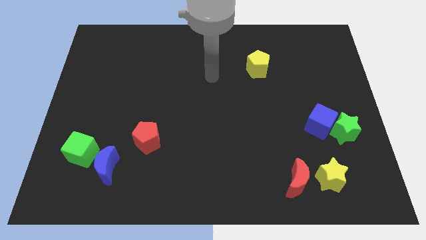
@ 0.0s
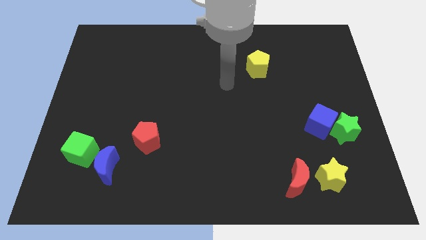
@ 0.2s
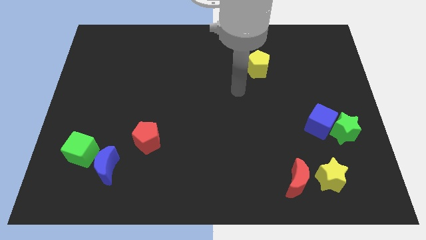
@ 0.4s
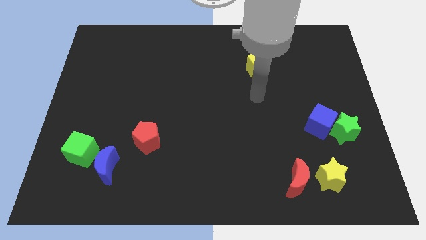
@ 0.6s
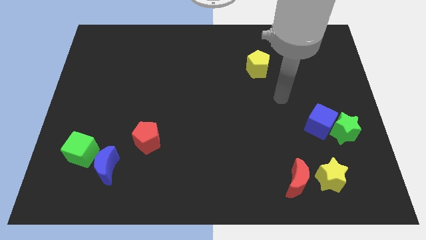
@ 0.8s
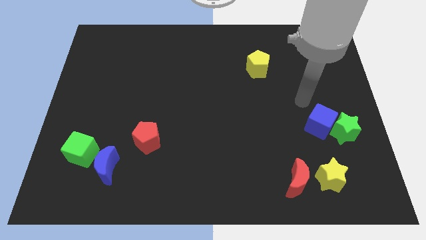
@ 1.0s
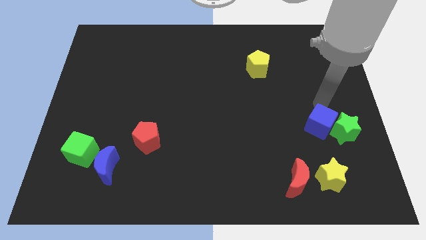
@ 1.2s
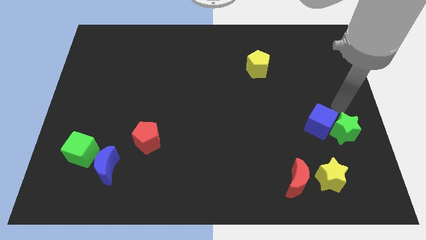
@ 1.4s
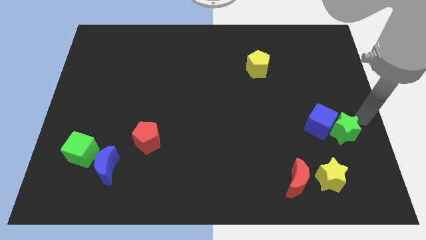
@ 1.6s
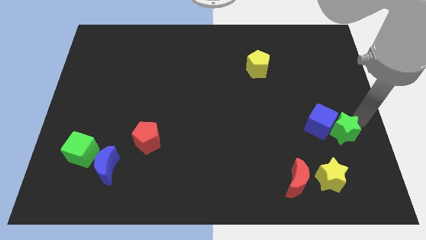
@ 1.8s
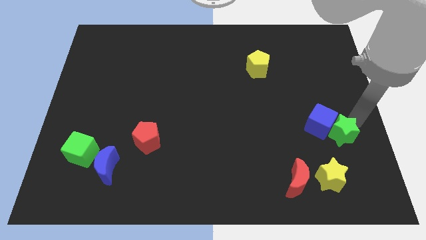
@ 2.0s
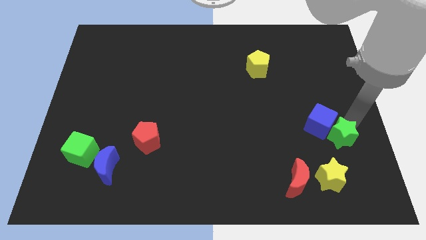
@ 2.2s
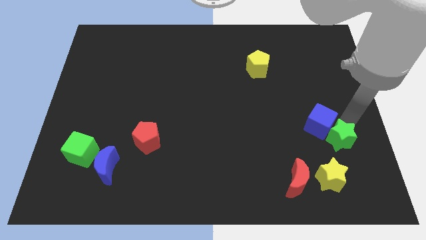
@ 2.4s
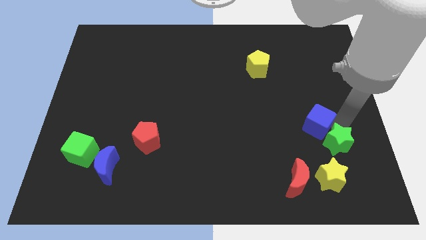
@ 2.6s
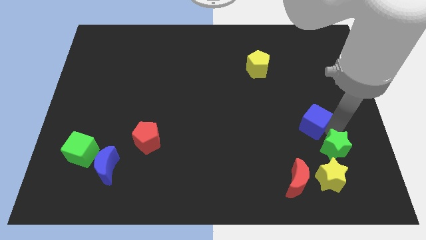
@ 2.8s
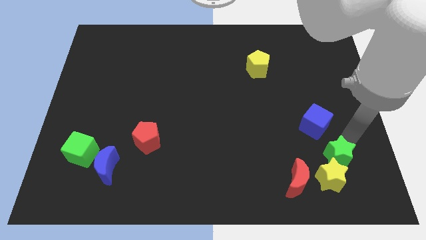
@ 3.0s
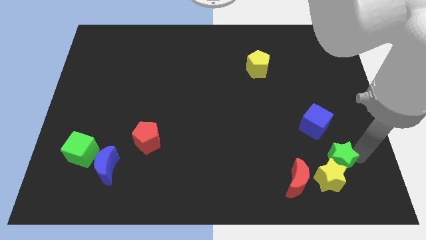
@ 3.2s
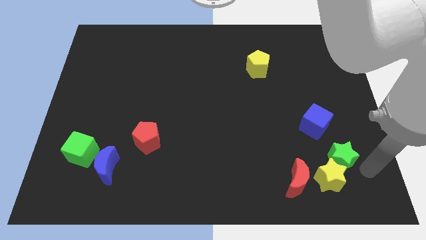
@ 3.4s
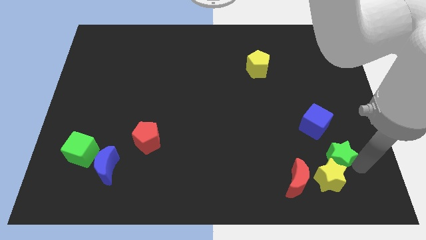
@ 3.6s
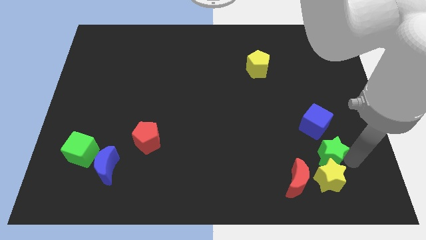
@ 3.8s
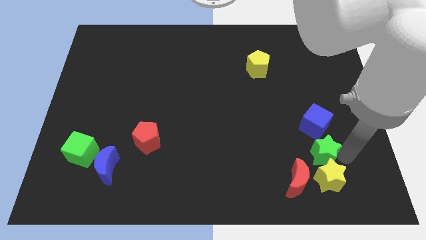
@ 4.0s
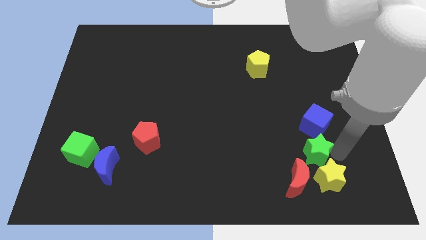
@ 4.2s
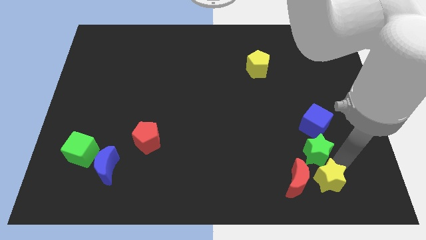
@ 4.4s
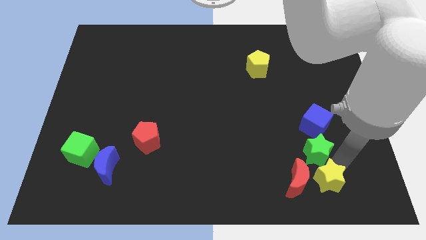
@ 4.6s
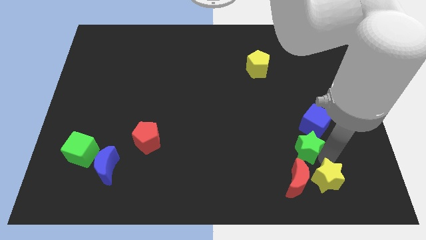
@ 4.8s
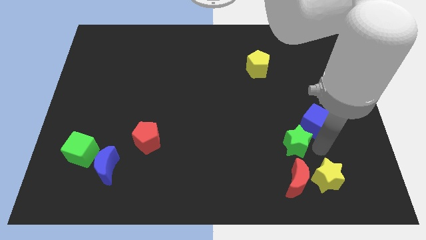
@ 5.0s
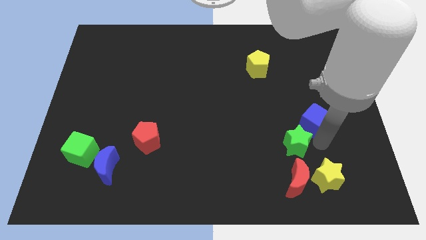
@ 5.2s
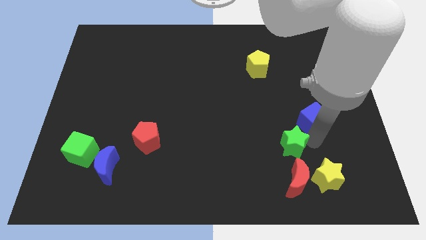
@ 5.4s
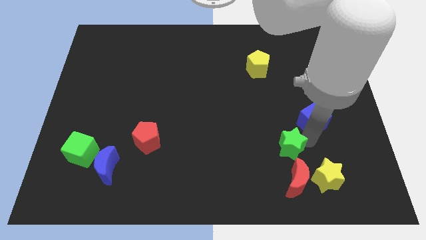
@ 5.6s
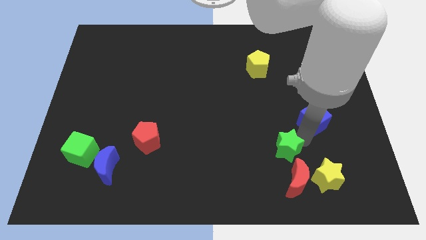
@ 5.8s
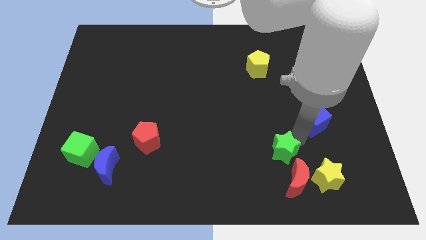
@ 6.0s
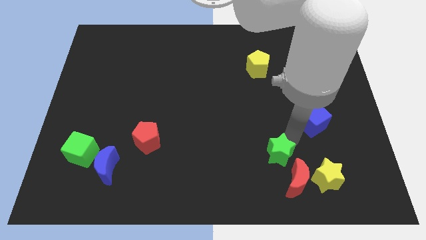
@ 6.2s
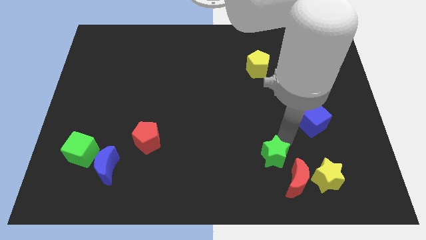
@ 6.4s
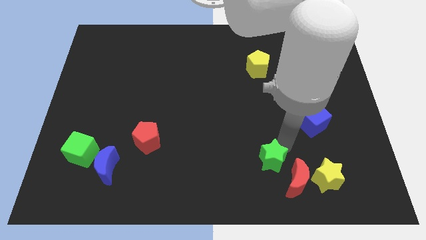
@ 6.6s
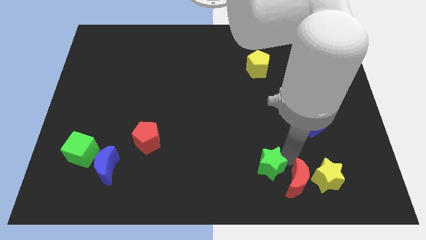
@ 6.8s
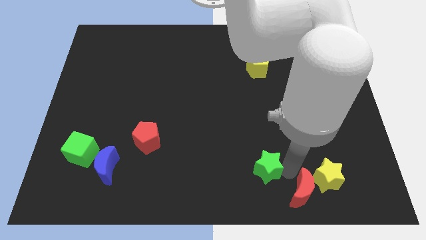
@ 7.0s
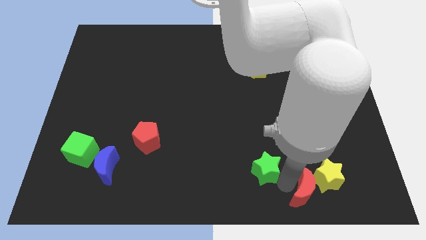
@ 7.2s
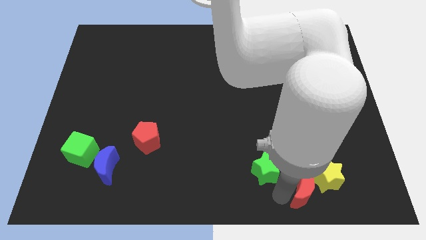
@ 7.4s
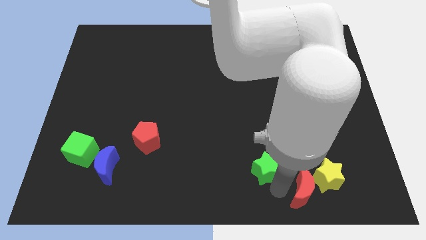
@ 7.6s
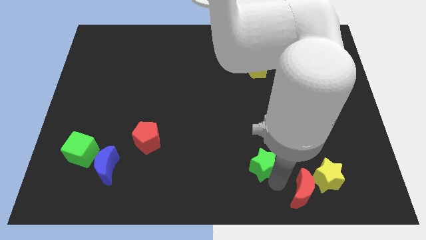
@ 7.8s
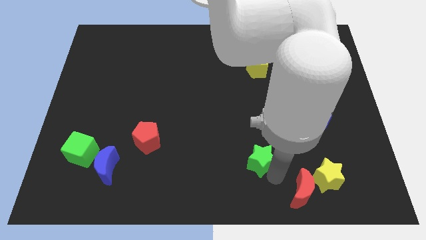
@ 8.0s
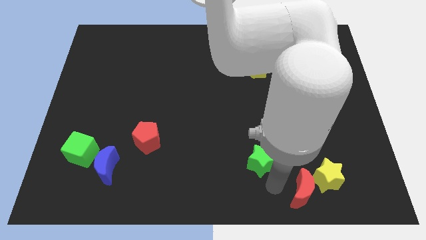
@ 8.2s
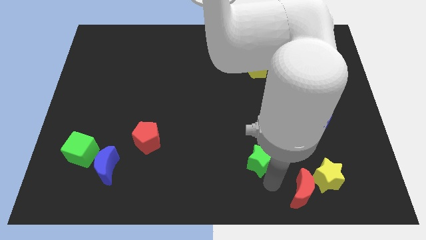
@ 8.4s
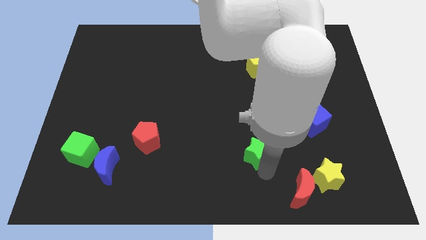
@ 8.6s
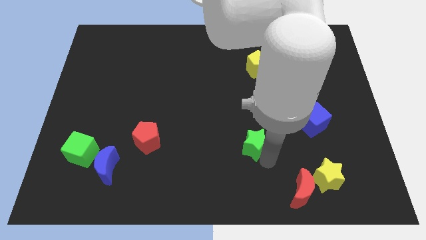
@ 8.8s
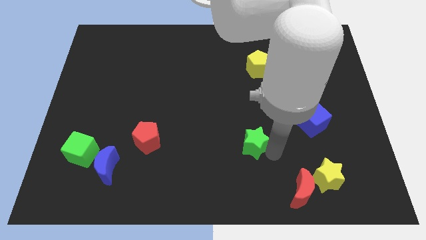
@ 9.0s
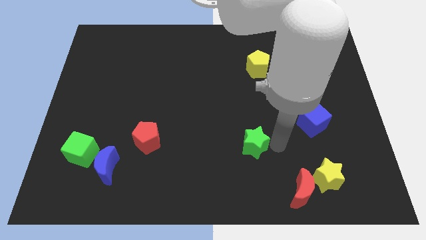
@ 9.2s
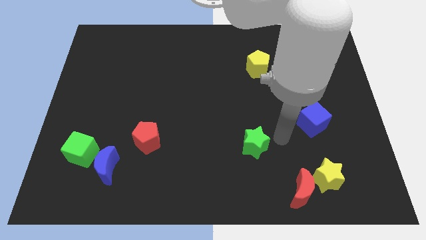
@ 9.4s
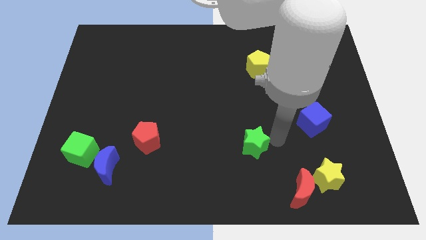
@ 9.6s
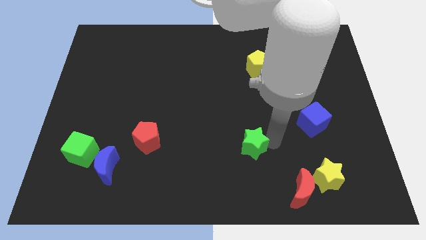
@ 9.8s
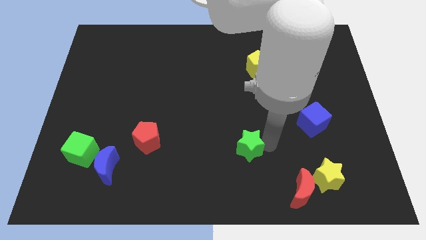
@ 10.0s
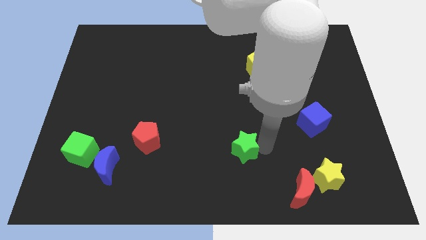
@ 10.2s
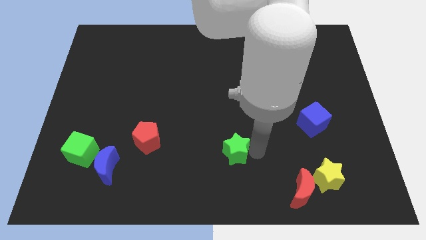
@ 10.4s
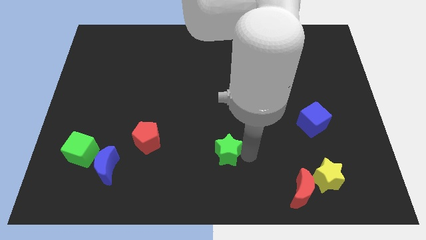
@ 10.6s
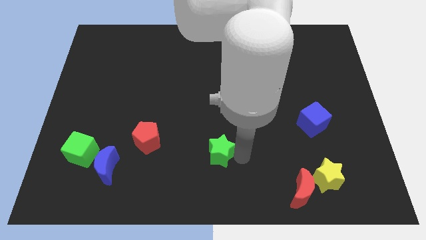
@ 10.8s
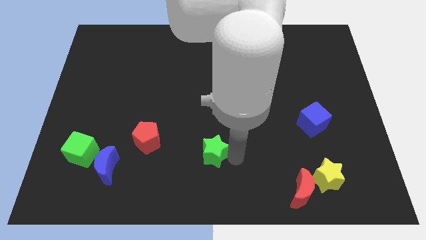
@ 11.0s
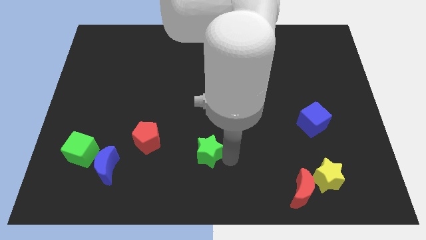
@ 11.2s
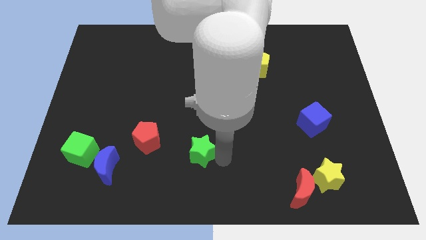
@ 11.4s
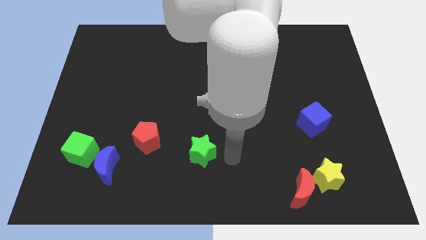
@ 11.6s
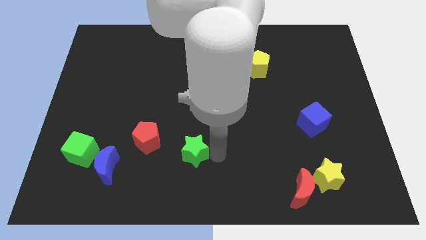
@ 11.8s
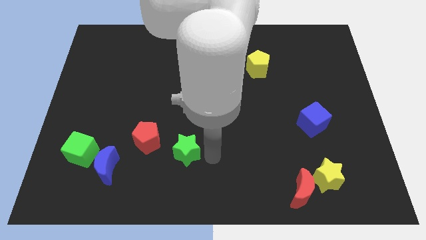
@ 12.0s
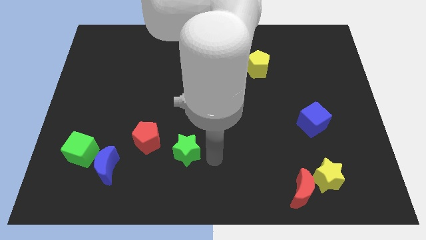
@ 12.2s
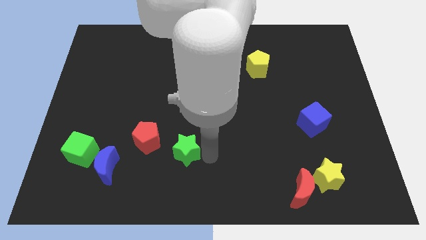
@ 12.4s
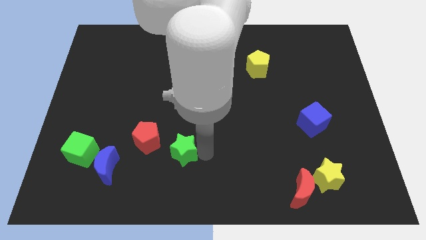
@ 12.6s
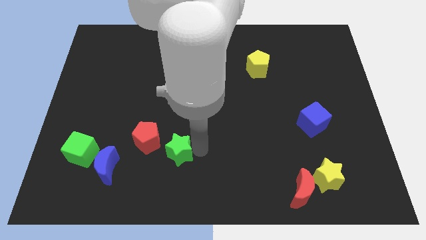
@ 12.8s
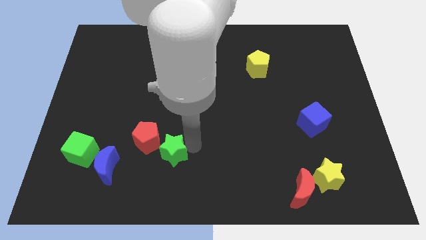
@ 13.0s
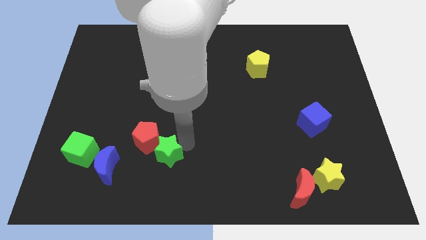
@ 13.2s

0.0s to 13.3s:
slide the green star to the red pentagon

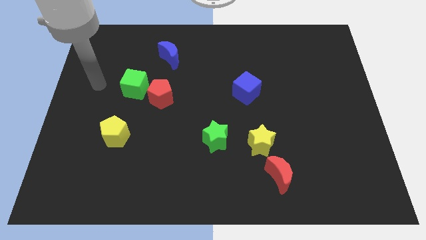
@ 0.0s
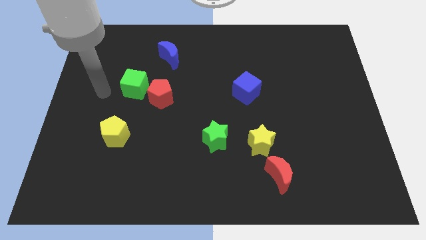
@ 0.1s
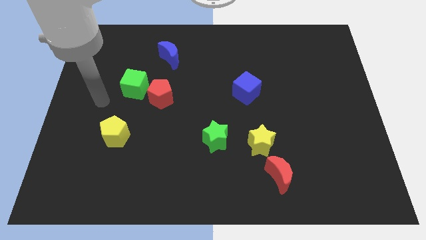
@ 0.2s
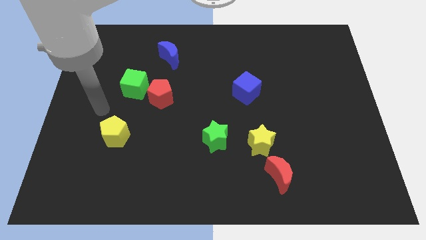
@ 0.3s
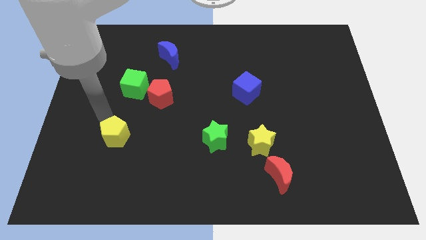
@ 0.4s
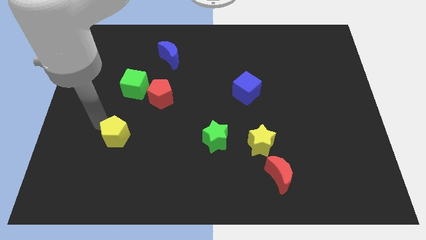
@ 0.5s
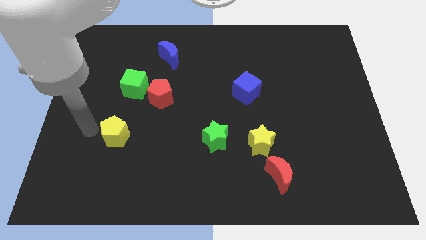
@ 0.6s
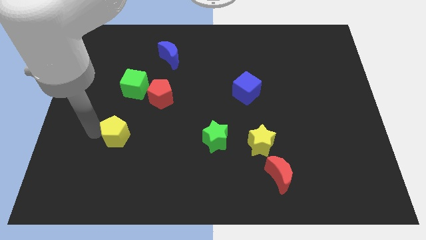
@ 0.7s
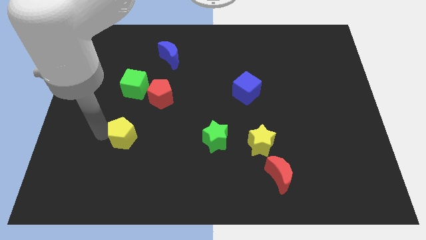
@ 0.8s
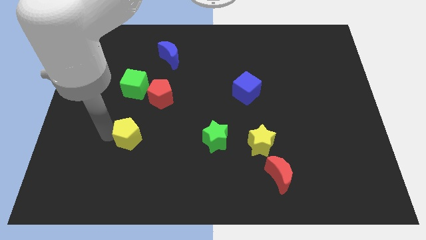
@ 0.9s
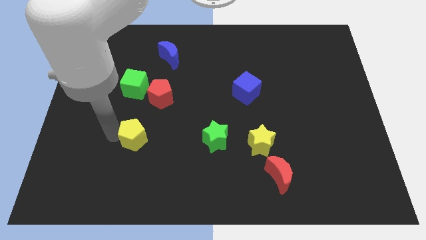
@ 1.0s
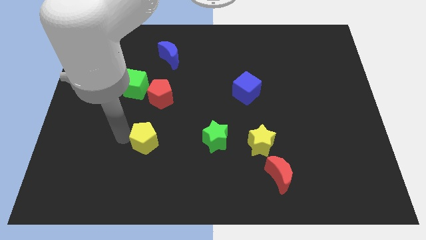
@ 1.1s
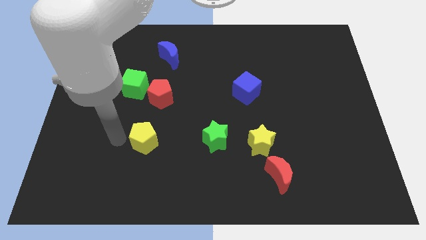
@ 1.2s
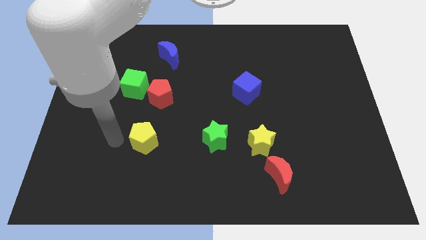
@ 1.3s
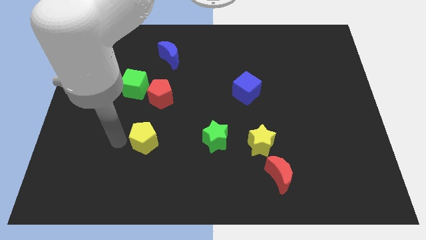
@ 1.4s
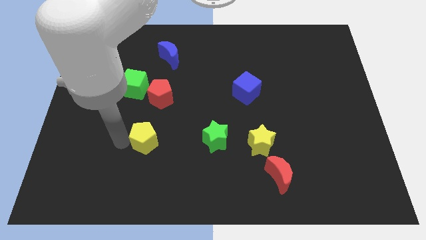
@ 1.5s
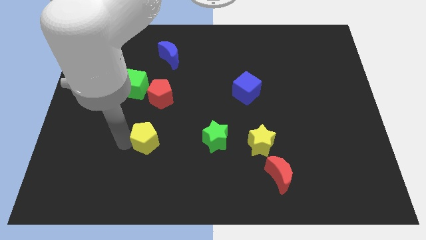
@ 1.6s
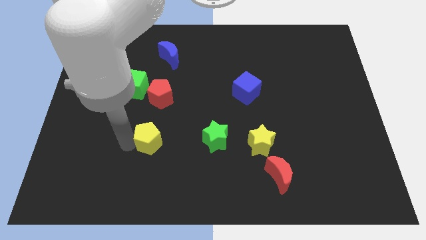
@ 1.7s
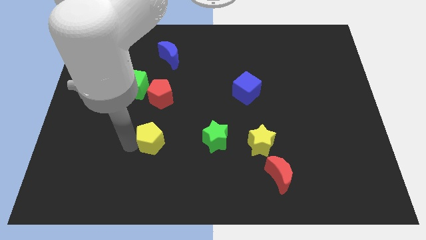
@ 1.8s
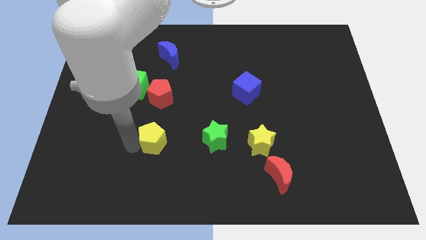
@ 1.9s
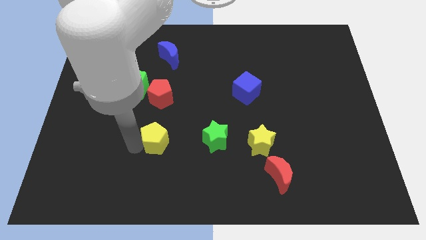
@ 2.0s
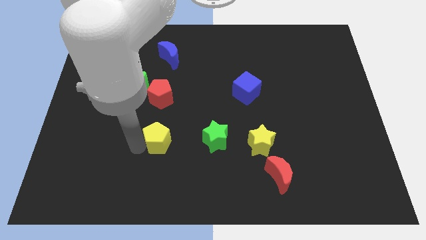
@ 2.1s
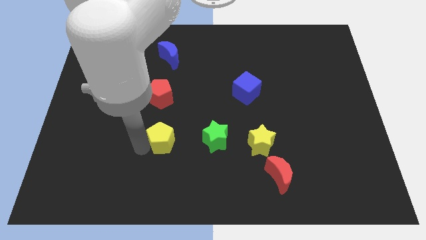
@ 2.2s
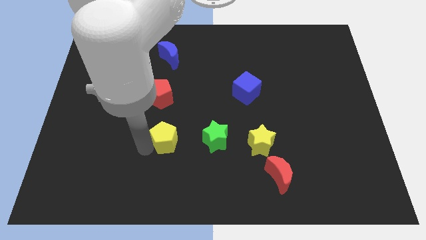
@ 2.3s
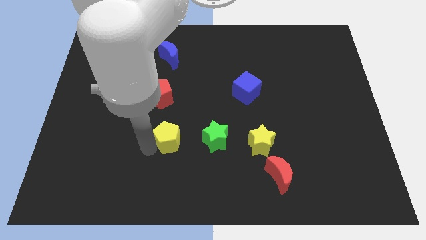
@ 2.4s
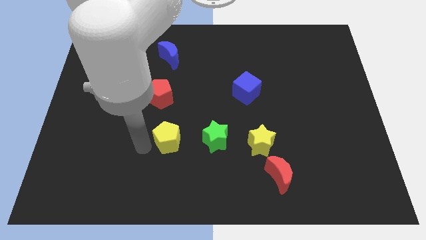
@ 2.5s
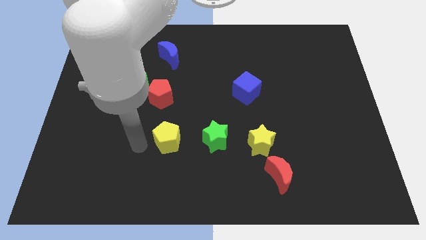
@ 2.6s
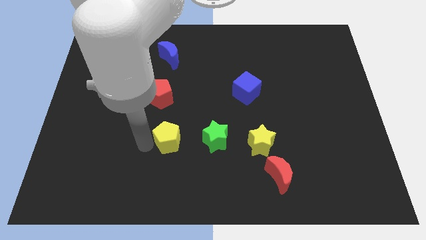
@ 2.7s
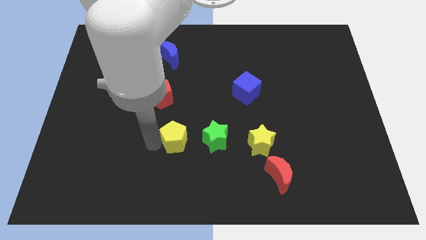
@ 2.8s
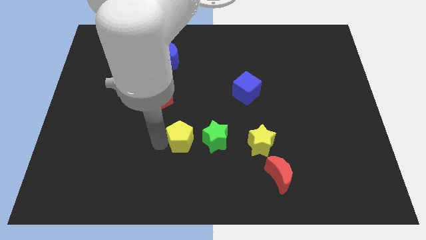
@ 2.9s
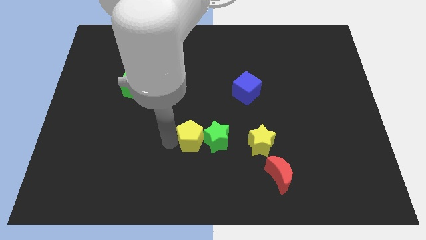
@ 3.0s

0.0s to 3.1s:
put the yellow pentagon to the green star
